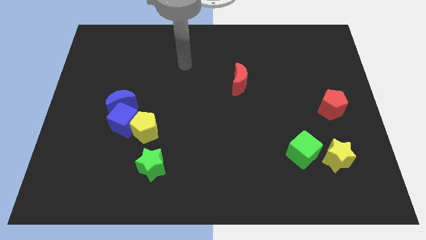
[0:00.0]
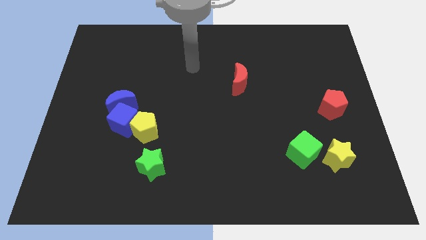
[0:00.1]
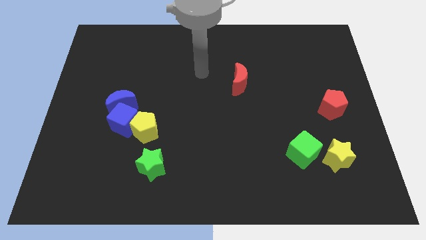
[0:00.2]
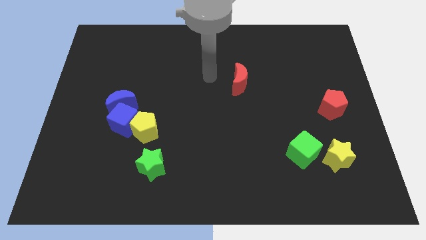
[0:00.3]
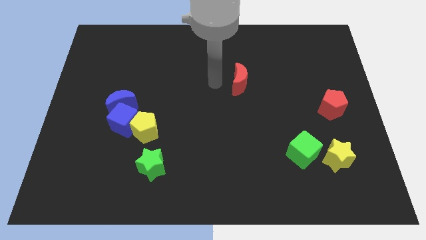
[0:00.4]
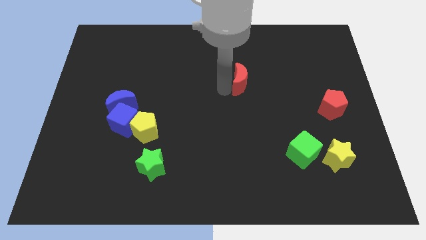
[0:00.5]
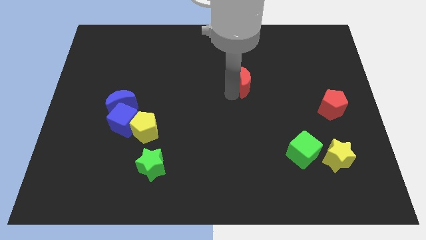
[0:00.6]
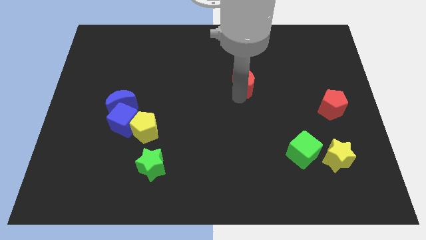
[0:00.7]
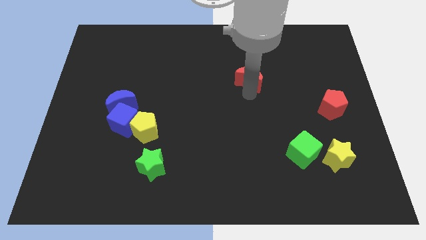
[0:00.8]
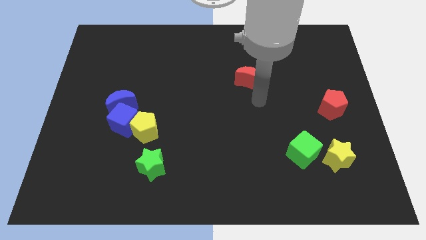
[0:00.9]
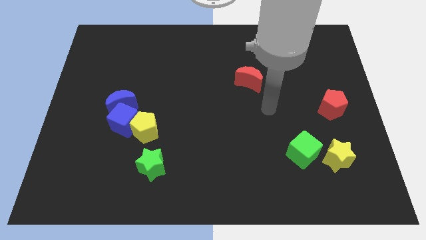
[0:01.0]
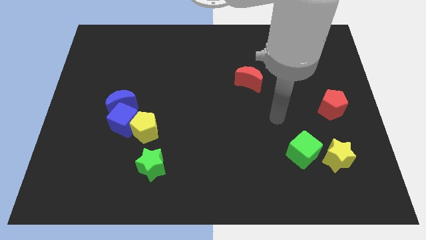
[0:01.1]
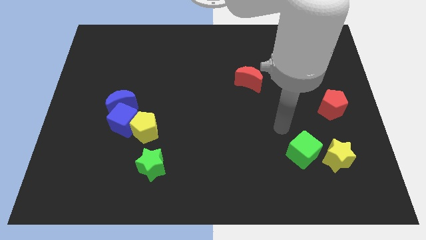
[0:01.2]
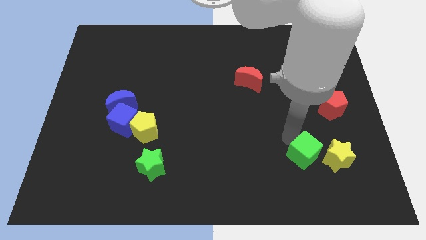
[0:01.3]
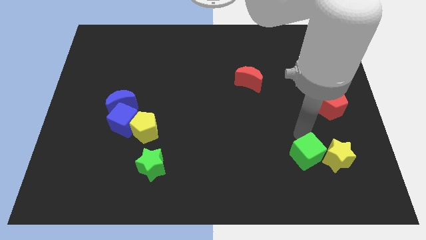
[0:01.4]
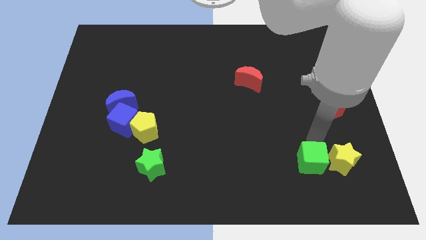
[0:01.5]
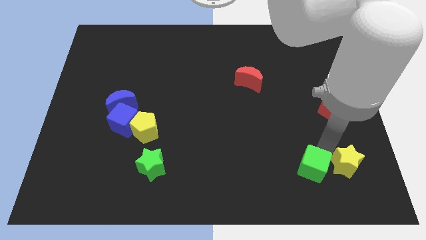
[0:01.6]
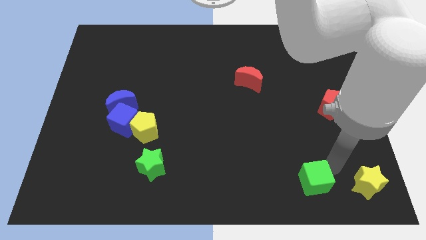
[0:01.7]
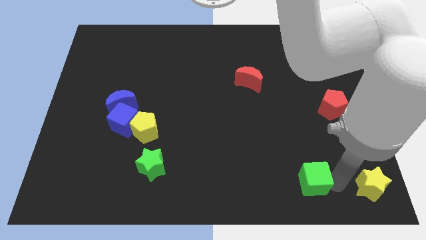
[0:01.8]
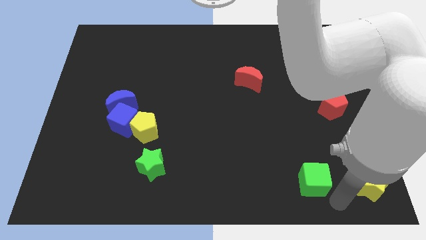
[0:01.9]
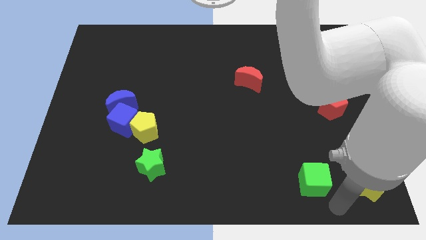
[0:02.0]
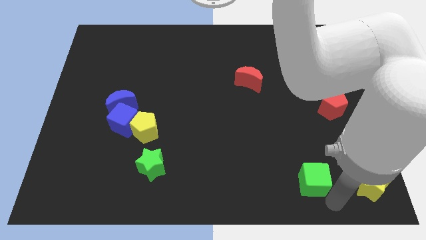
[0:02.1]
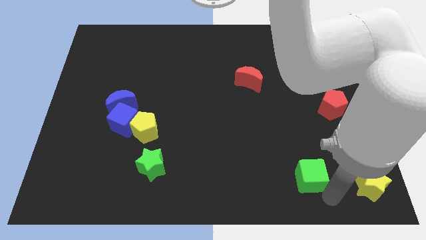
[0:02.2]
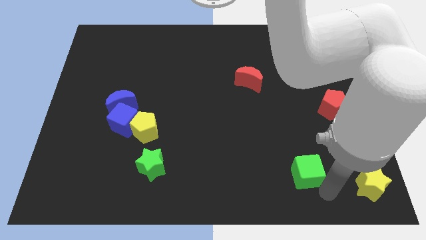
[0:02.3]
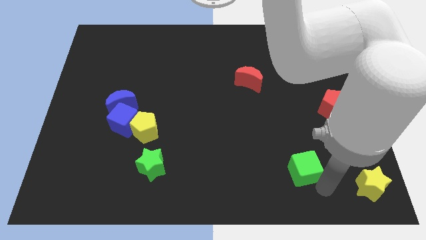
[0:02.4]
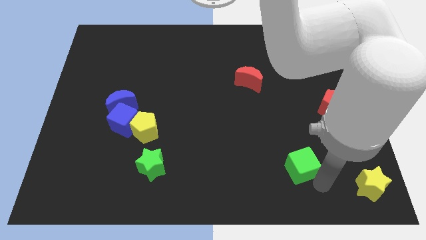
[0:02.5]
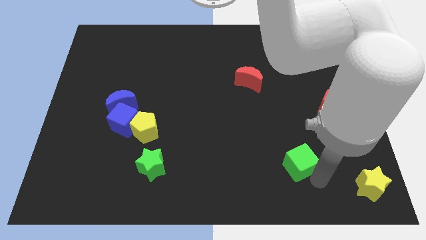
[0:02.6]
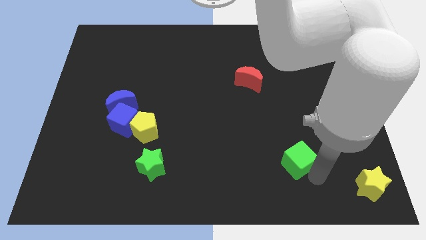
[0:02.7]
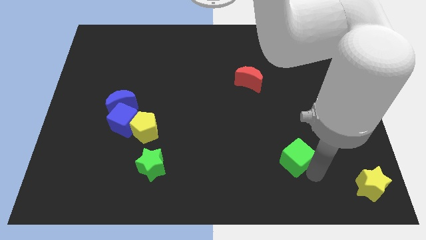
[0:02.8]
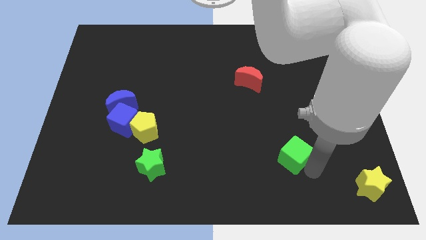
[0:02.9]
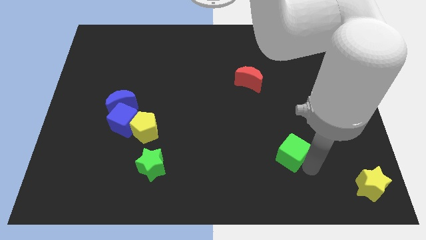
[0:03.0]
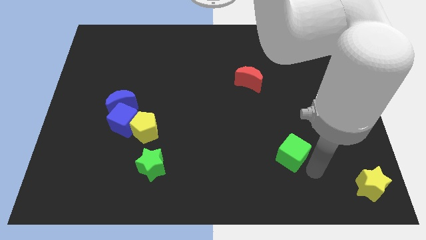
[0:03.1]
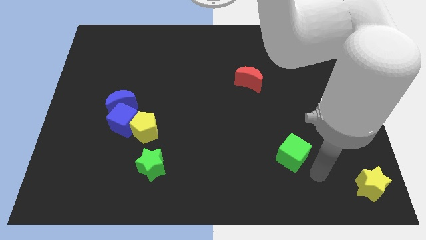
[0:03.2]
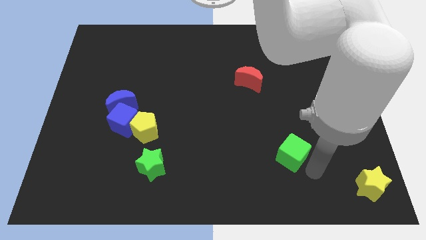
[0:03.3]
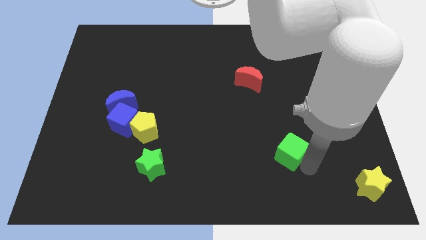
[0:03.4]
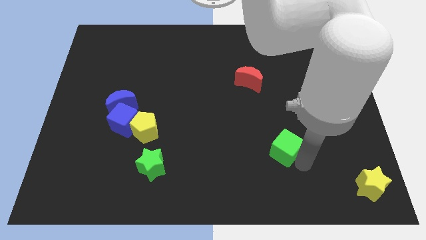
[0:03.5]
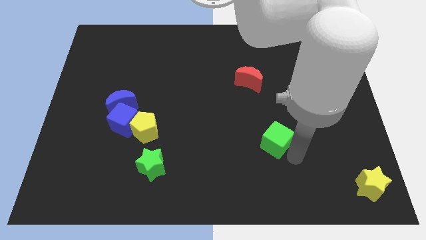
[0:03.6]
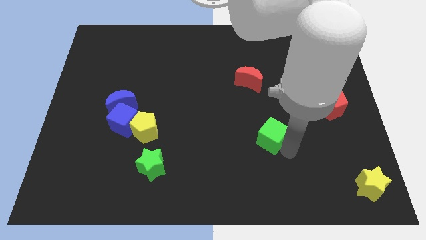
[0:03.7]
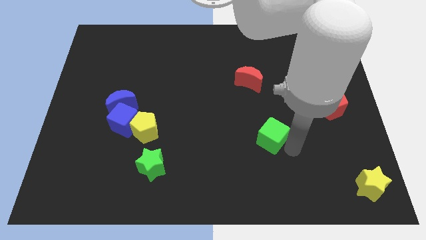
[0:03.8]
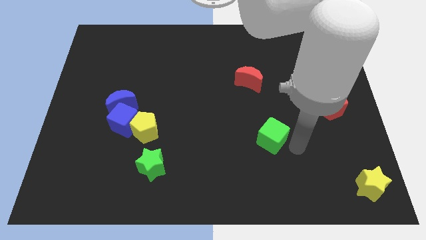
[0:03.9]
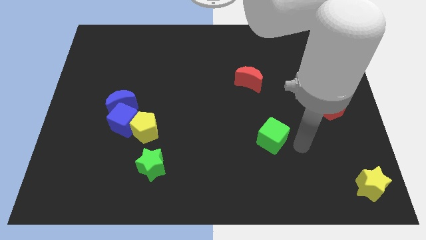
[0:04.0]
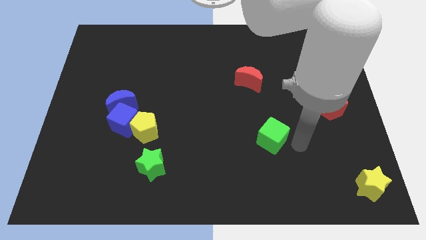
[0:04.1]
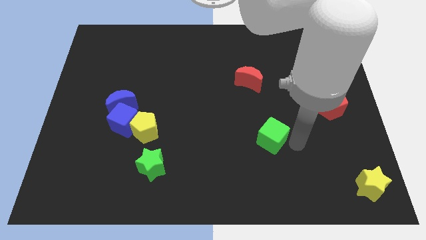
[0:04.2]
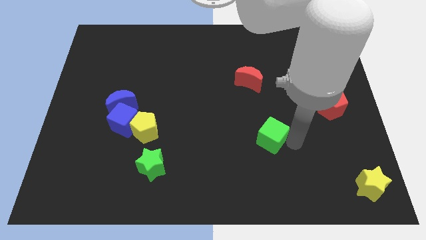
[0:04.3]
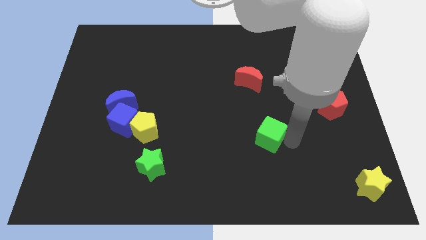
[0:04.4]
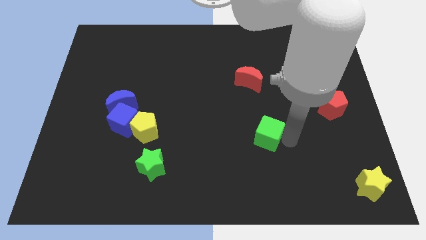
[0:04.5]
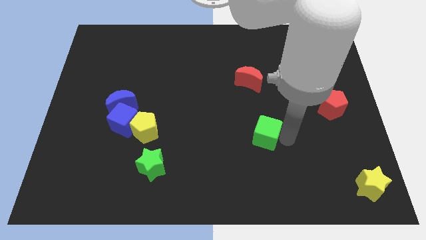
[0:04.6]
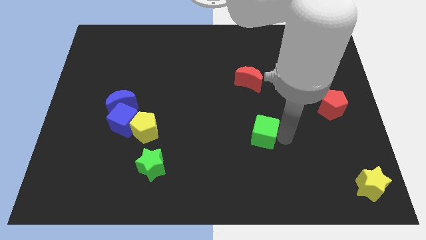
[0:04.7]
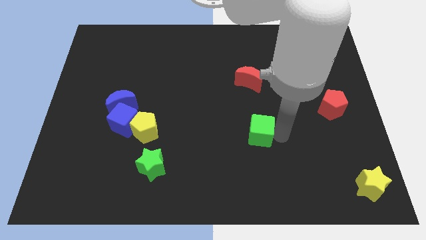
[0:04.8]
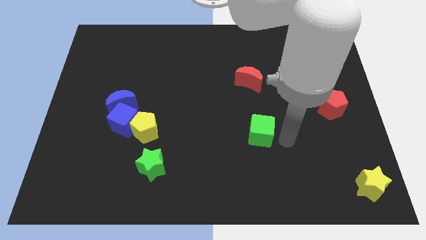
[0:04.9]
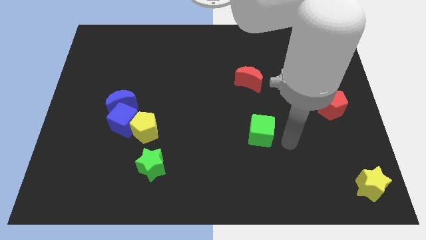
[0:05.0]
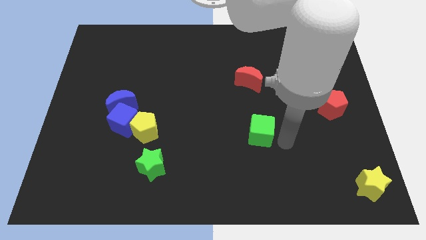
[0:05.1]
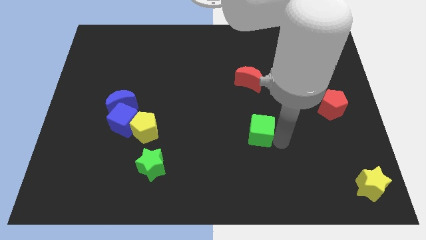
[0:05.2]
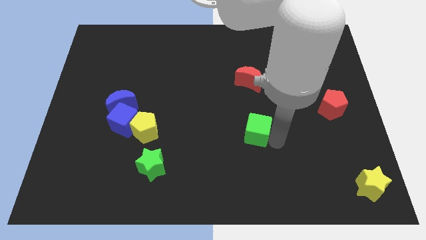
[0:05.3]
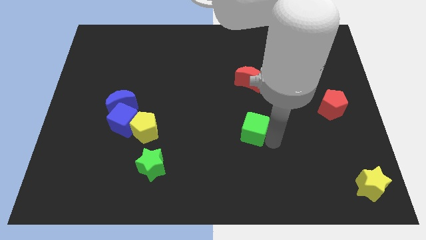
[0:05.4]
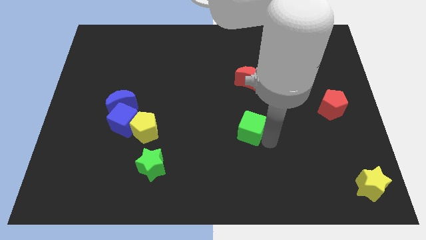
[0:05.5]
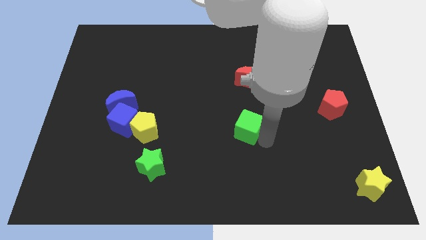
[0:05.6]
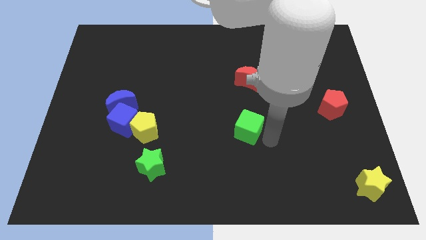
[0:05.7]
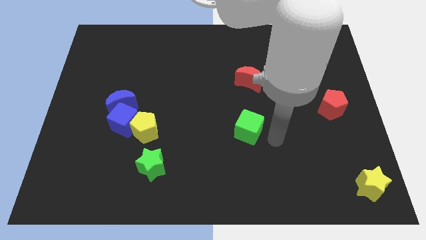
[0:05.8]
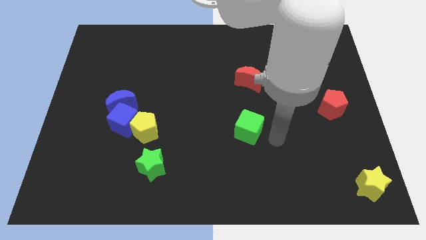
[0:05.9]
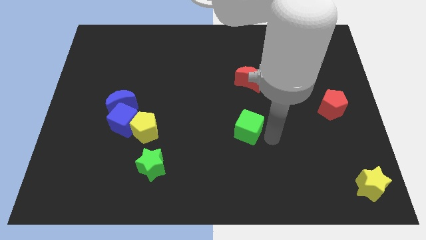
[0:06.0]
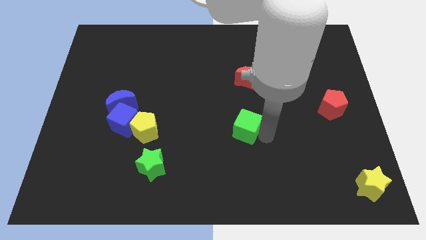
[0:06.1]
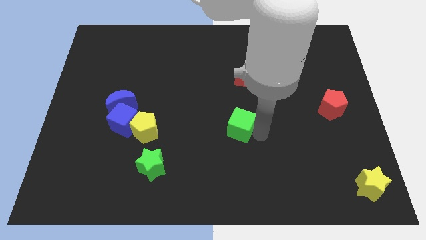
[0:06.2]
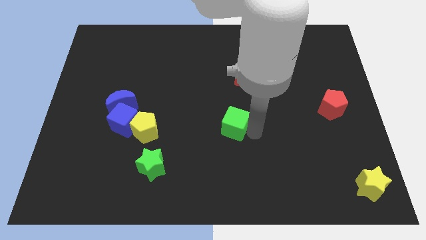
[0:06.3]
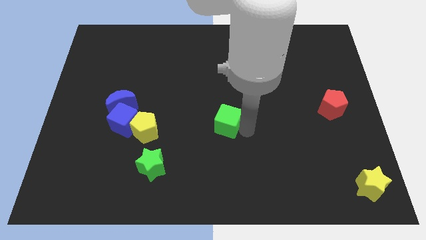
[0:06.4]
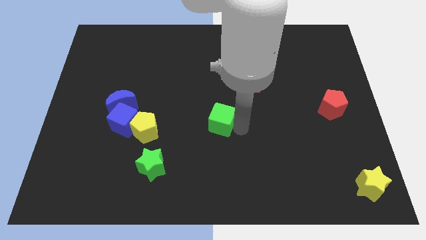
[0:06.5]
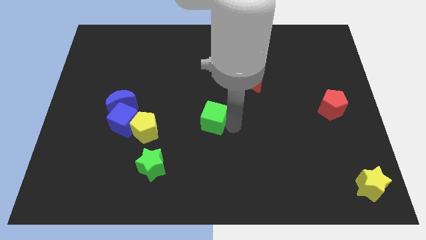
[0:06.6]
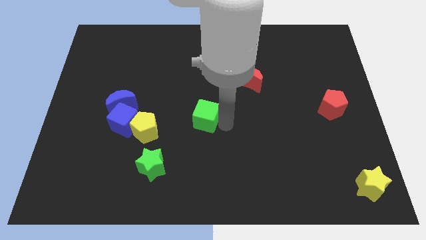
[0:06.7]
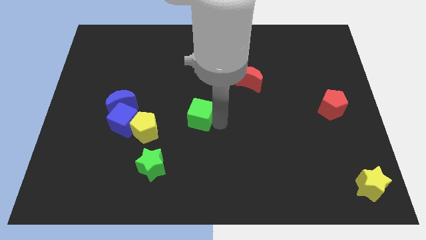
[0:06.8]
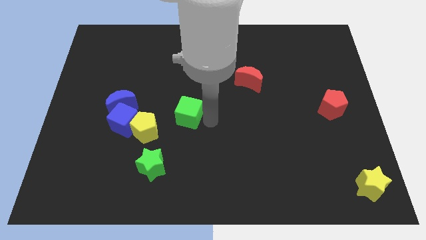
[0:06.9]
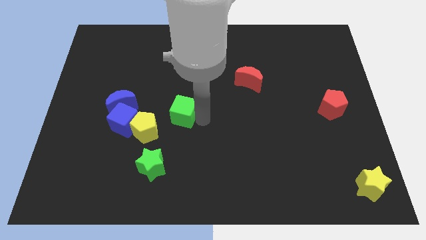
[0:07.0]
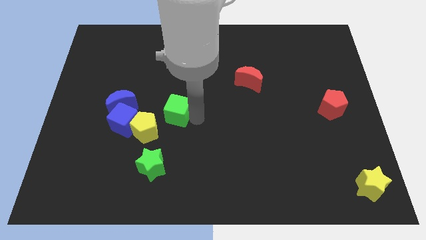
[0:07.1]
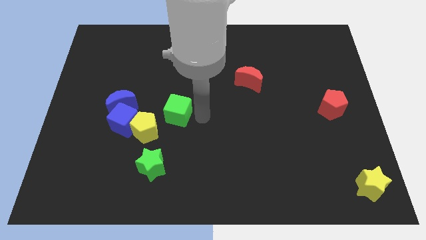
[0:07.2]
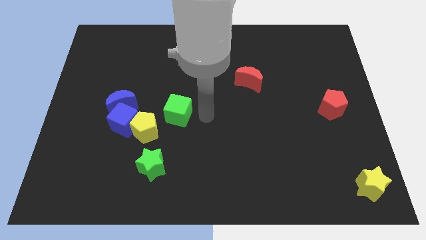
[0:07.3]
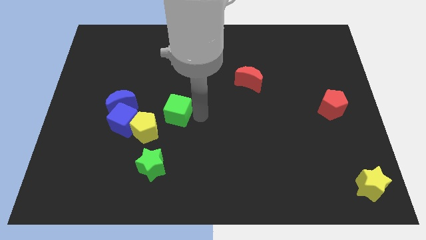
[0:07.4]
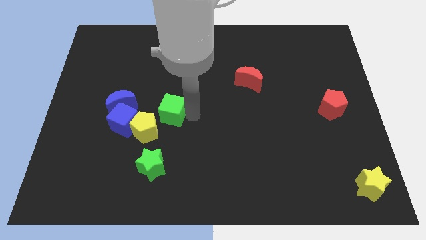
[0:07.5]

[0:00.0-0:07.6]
slide the green cube to the top side of the green star
